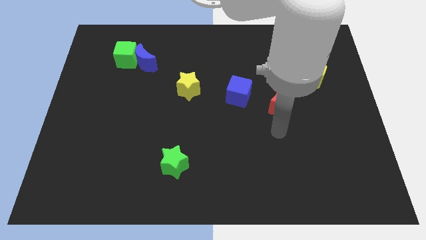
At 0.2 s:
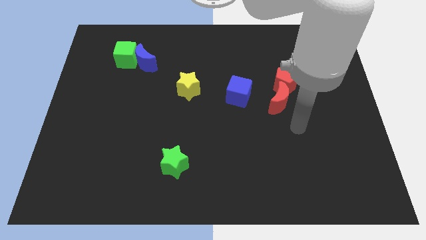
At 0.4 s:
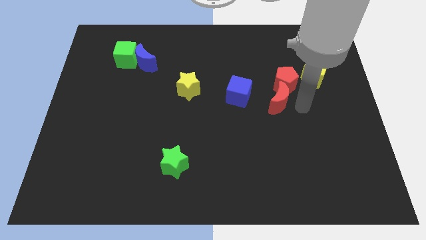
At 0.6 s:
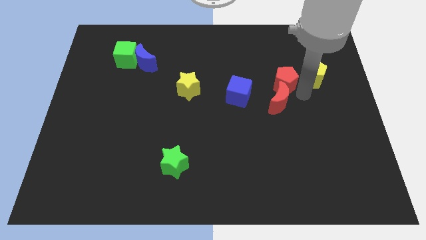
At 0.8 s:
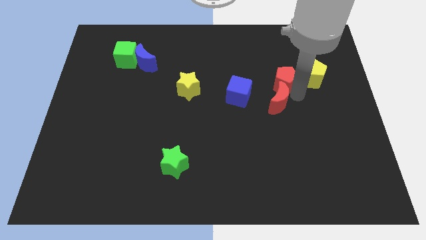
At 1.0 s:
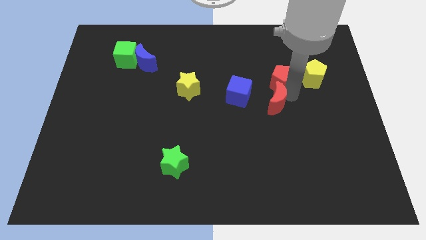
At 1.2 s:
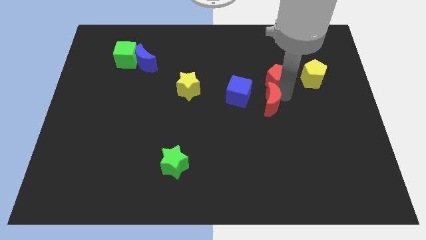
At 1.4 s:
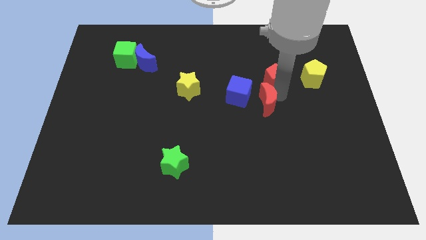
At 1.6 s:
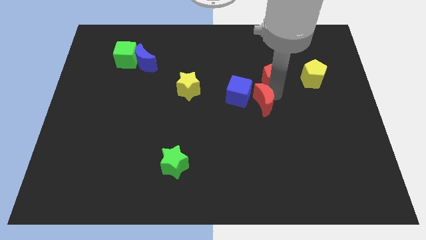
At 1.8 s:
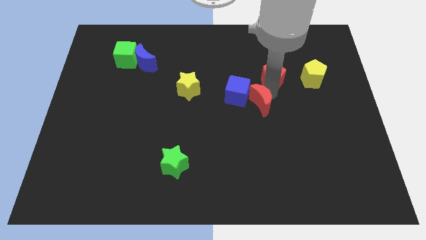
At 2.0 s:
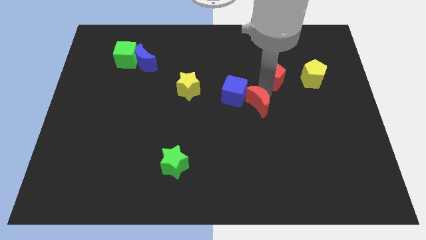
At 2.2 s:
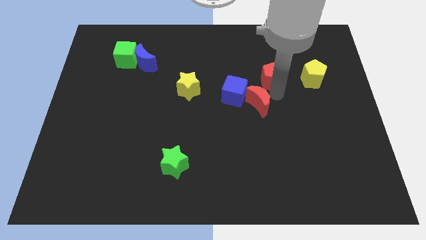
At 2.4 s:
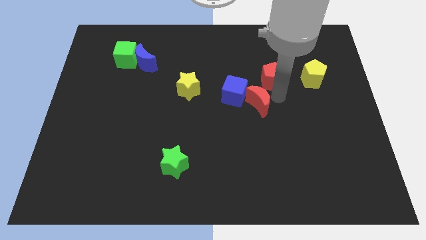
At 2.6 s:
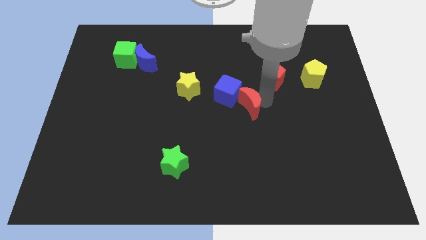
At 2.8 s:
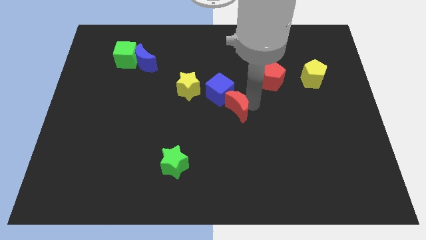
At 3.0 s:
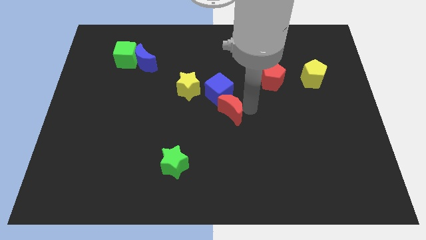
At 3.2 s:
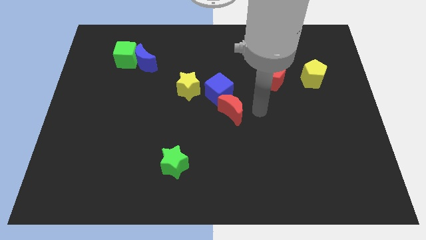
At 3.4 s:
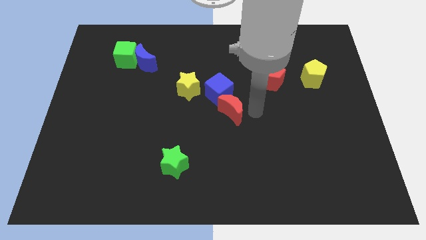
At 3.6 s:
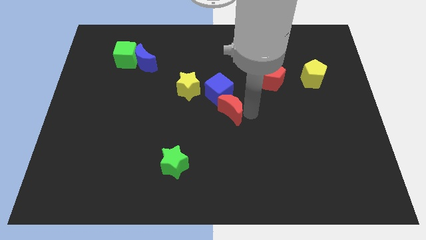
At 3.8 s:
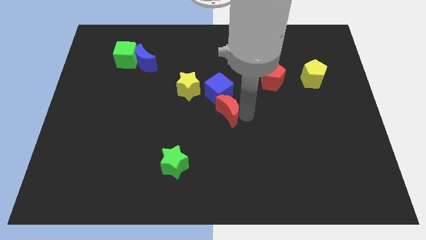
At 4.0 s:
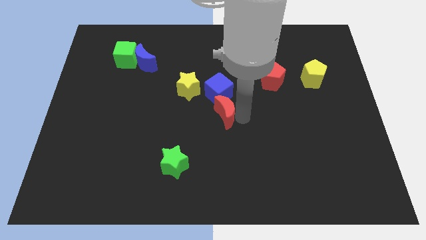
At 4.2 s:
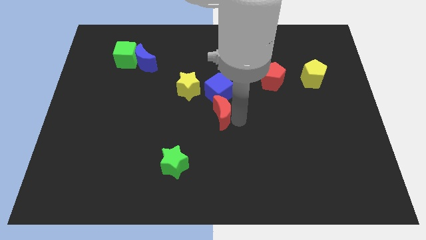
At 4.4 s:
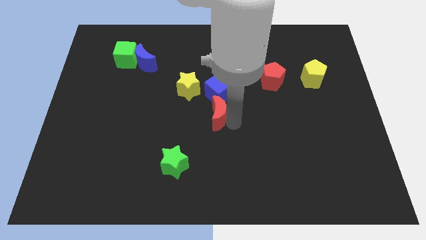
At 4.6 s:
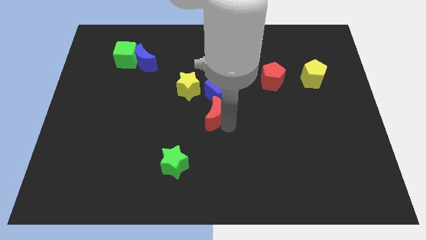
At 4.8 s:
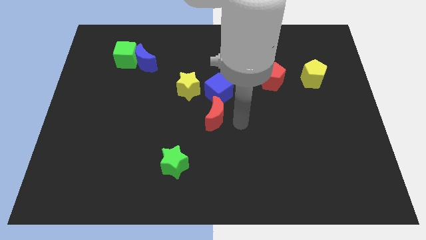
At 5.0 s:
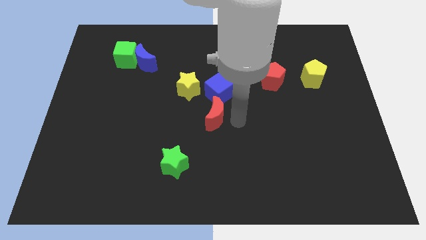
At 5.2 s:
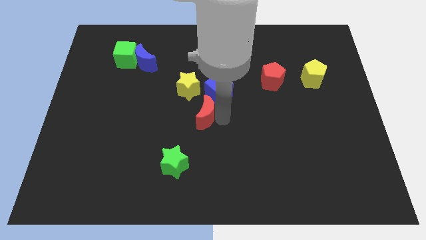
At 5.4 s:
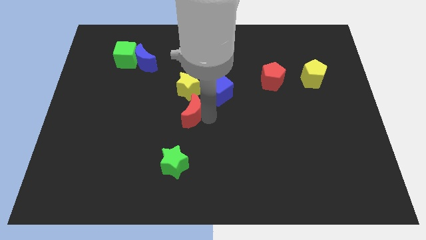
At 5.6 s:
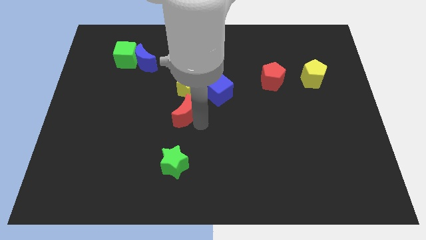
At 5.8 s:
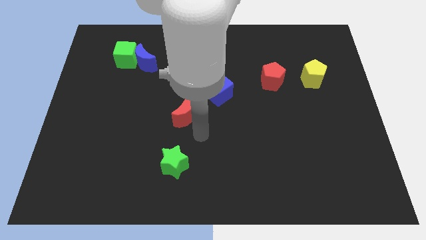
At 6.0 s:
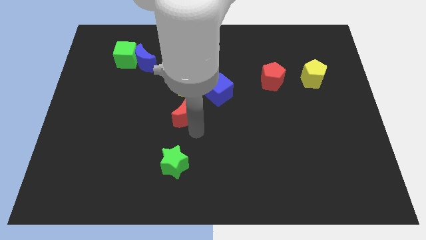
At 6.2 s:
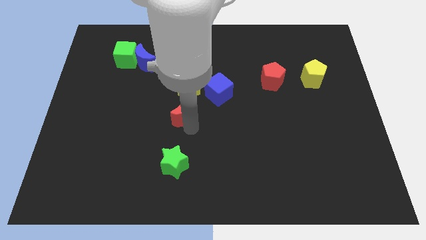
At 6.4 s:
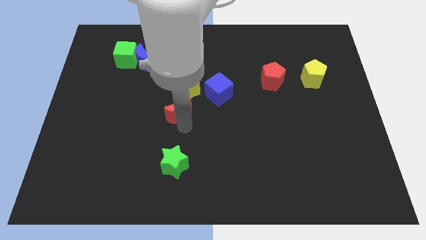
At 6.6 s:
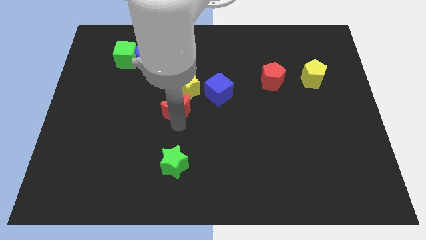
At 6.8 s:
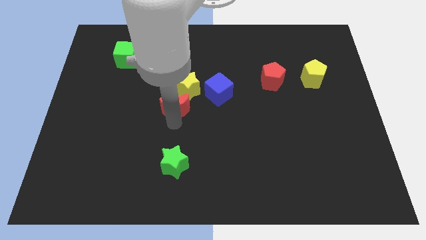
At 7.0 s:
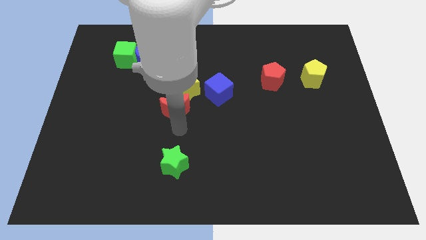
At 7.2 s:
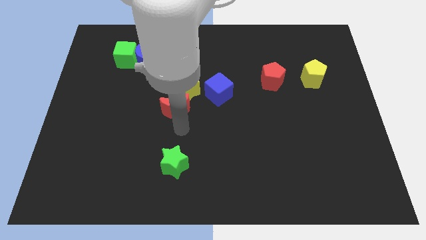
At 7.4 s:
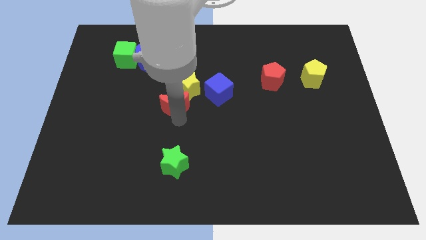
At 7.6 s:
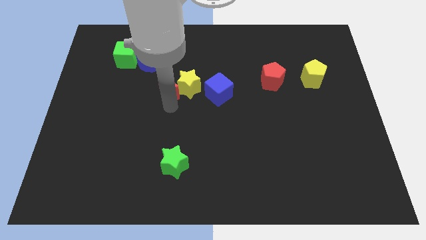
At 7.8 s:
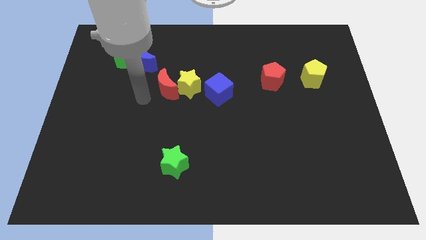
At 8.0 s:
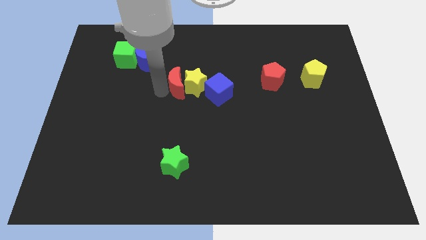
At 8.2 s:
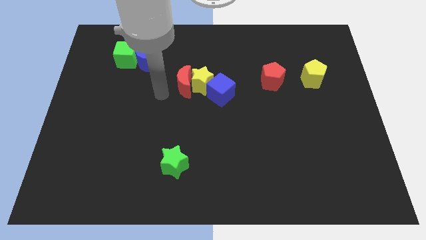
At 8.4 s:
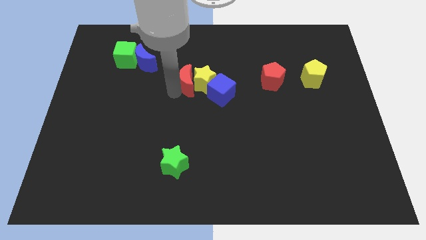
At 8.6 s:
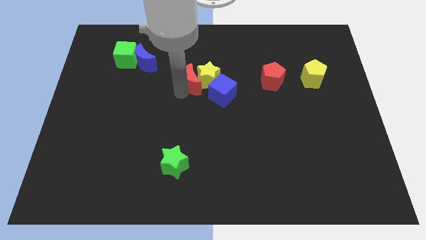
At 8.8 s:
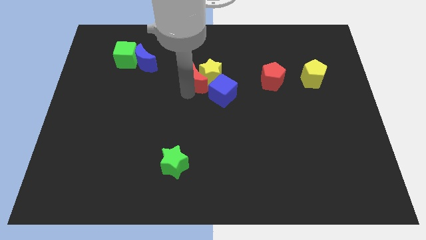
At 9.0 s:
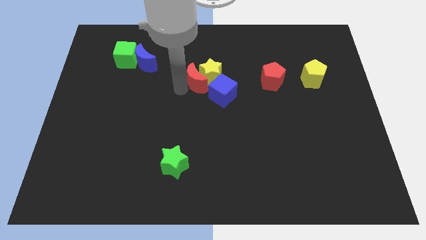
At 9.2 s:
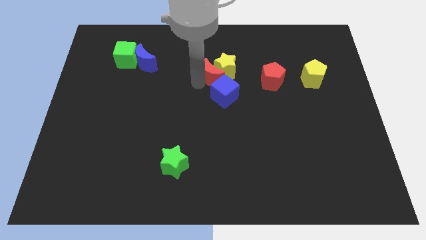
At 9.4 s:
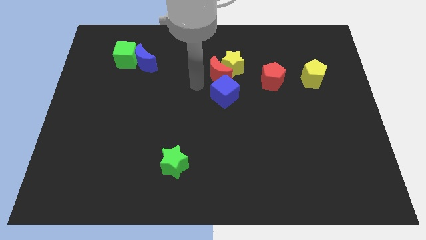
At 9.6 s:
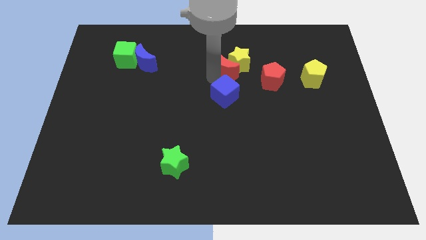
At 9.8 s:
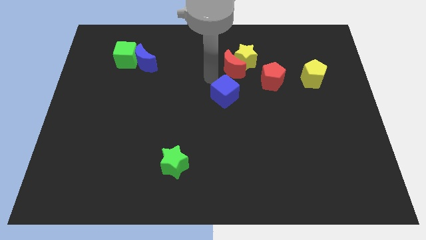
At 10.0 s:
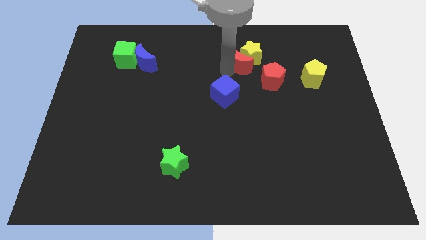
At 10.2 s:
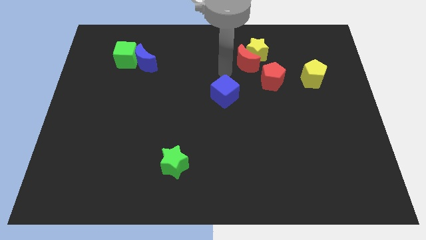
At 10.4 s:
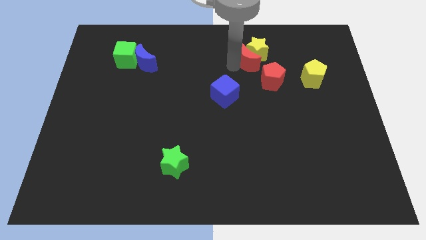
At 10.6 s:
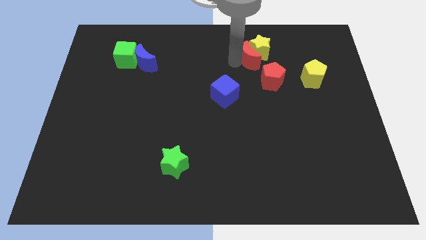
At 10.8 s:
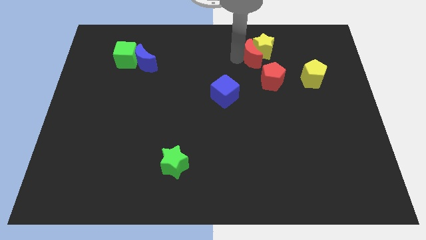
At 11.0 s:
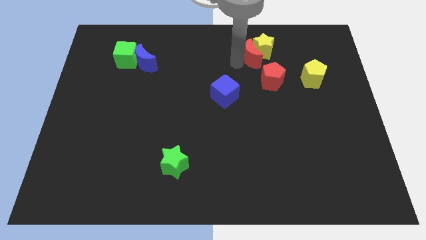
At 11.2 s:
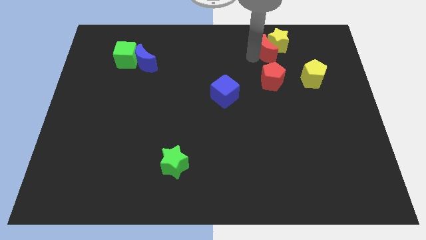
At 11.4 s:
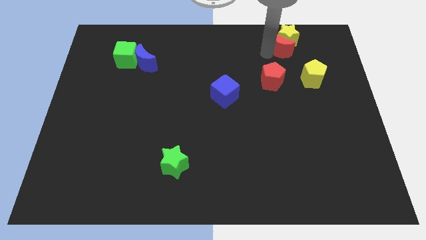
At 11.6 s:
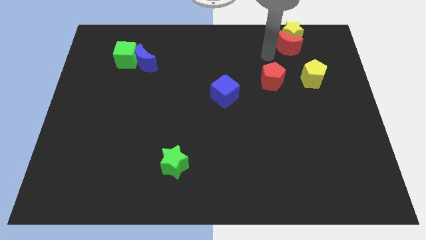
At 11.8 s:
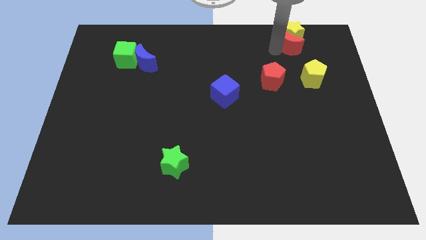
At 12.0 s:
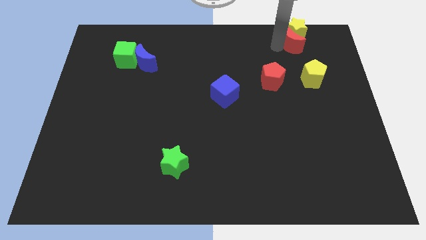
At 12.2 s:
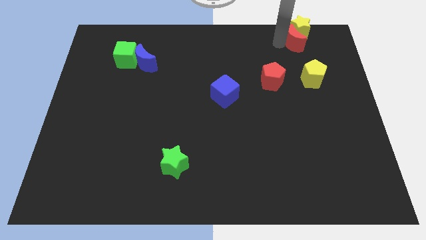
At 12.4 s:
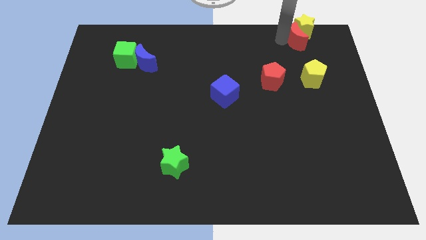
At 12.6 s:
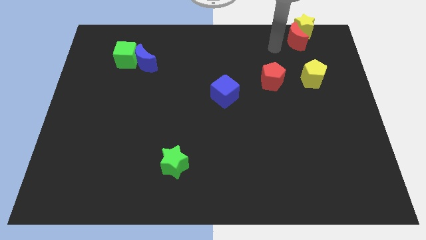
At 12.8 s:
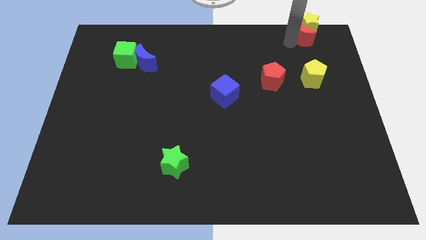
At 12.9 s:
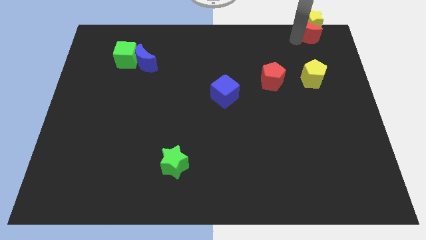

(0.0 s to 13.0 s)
put the red moon to the upper right corner
